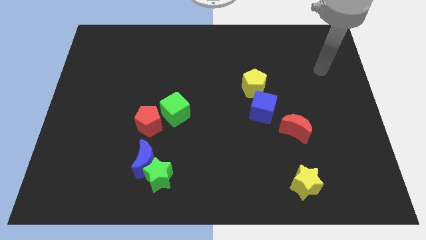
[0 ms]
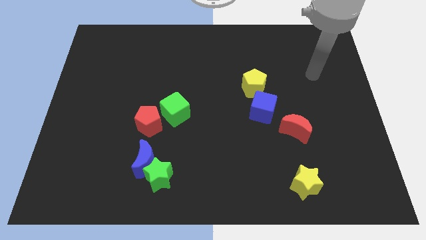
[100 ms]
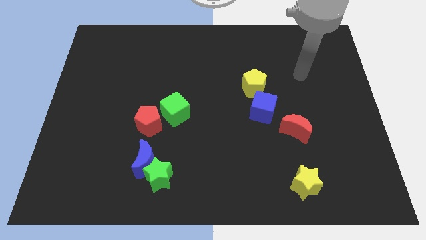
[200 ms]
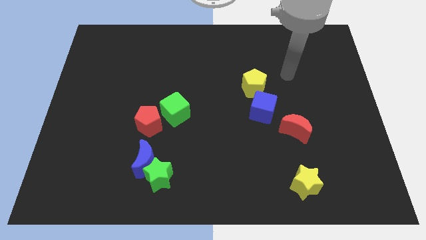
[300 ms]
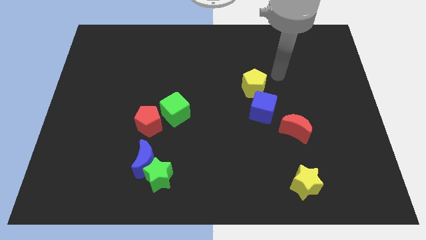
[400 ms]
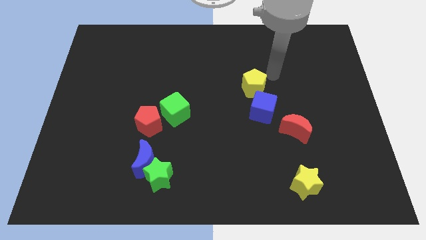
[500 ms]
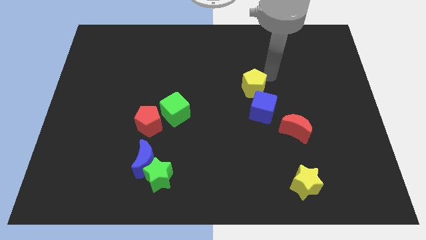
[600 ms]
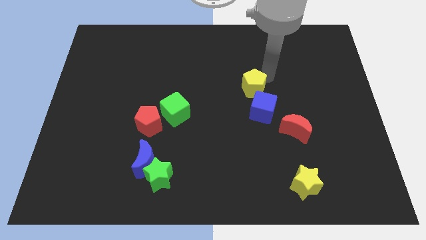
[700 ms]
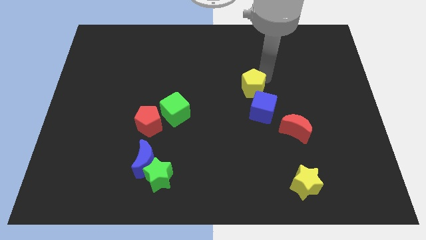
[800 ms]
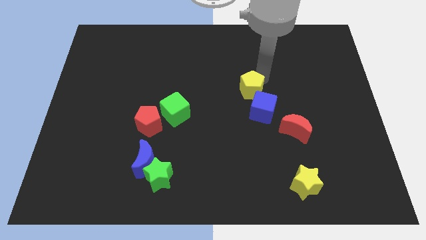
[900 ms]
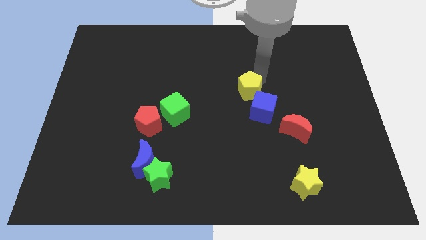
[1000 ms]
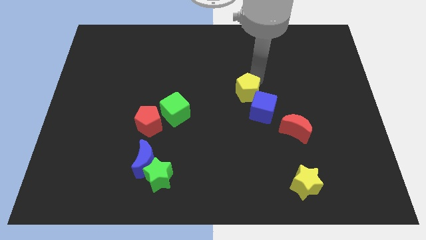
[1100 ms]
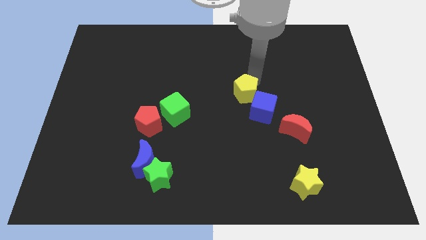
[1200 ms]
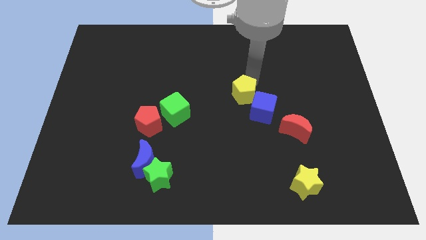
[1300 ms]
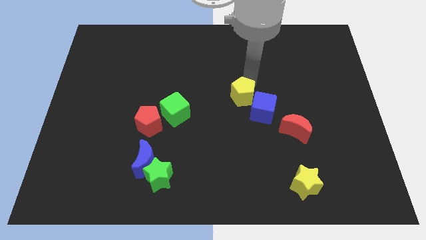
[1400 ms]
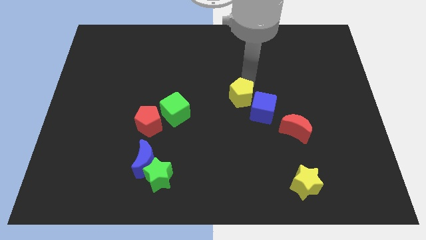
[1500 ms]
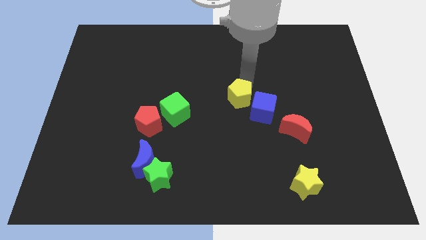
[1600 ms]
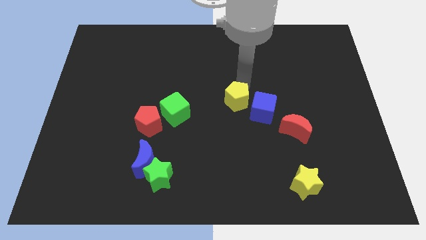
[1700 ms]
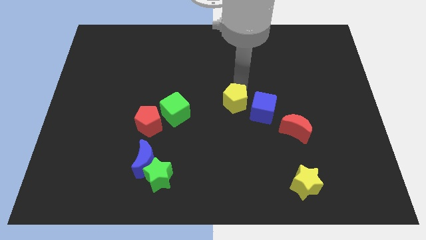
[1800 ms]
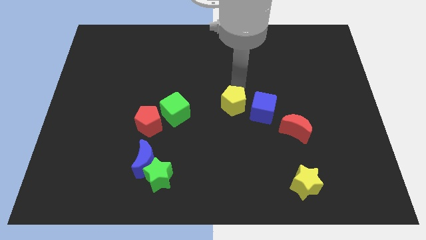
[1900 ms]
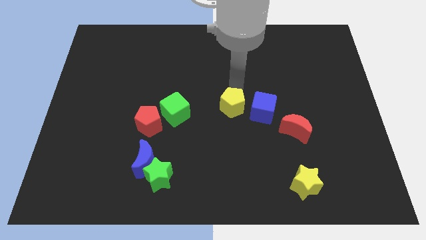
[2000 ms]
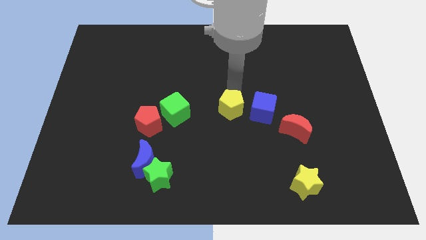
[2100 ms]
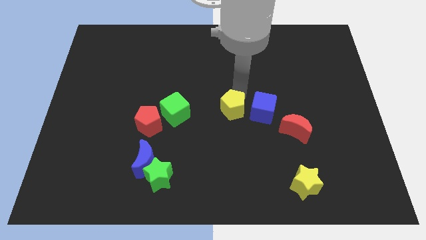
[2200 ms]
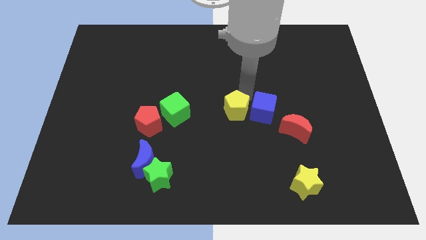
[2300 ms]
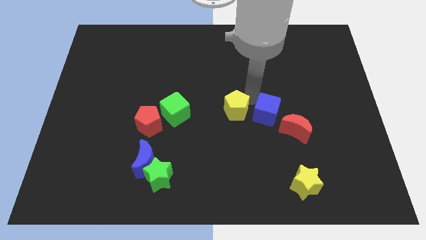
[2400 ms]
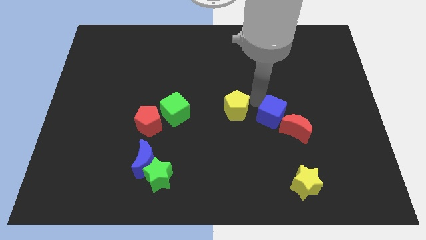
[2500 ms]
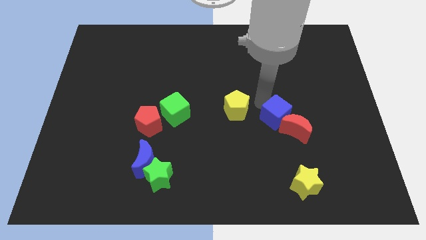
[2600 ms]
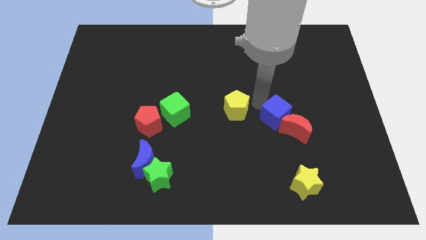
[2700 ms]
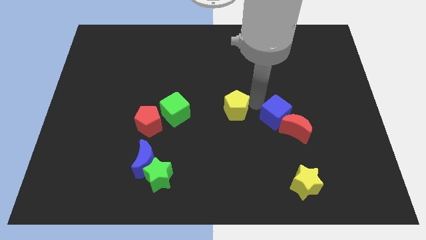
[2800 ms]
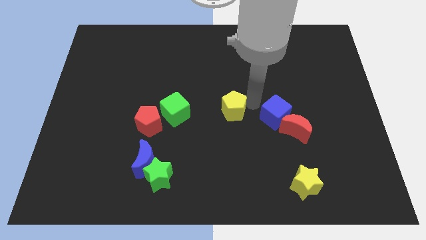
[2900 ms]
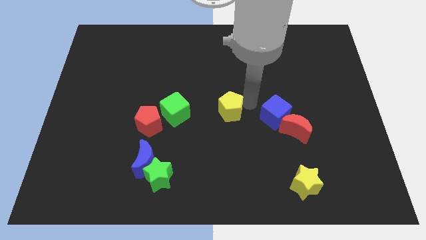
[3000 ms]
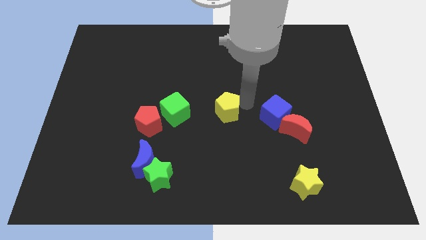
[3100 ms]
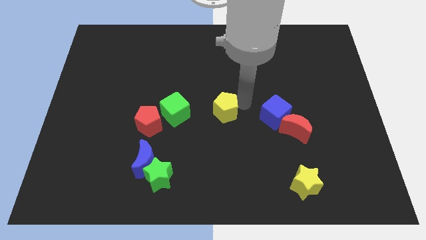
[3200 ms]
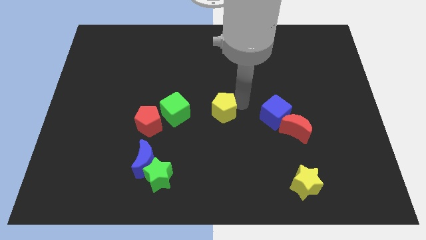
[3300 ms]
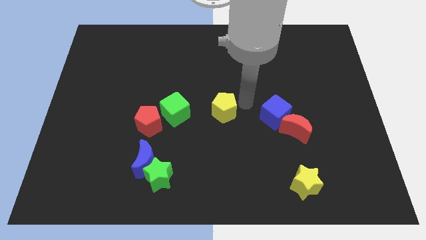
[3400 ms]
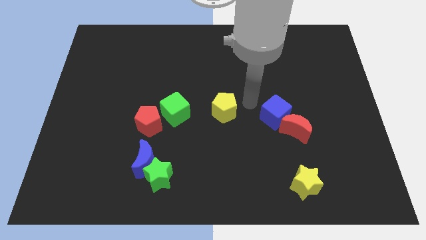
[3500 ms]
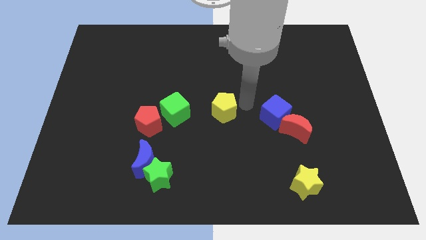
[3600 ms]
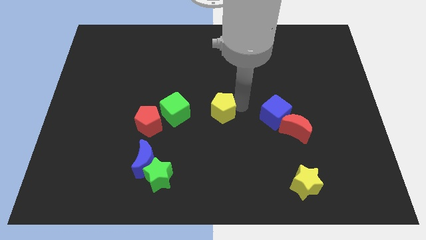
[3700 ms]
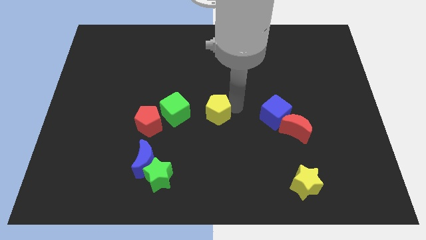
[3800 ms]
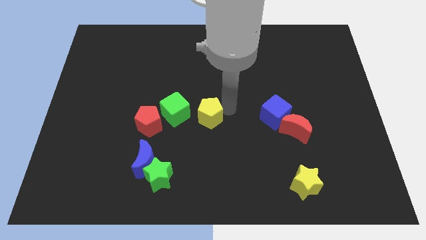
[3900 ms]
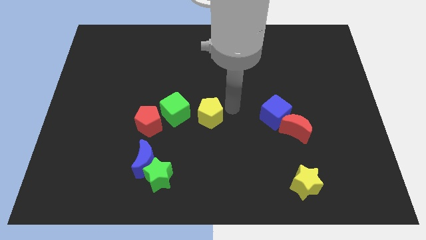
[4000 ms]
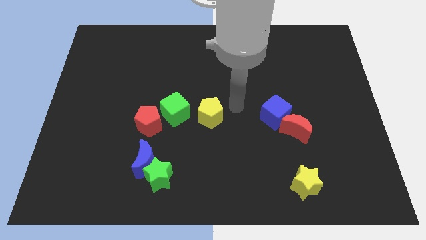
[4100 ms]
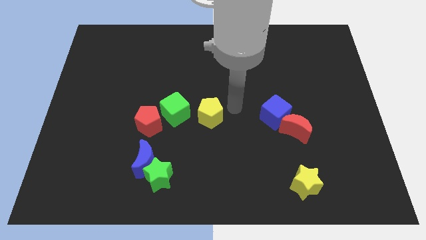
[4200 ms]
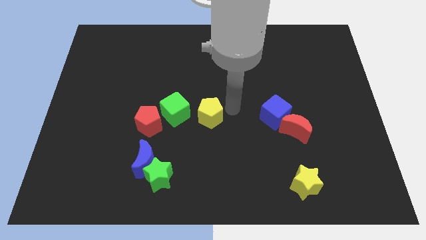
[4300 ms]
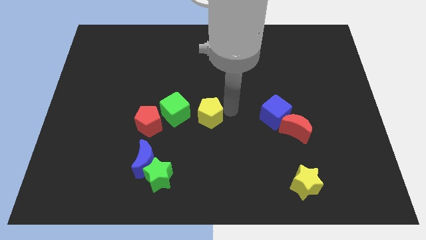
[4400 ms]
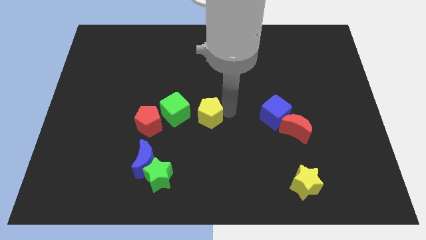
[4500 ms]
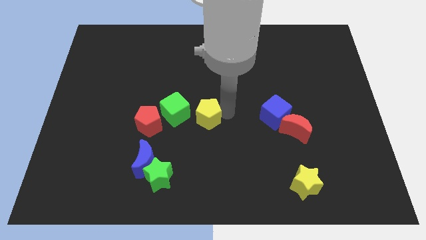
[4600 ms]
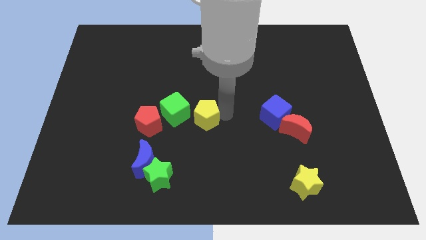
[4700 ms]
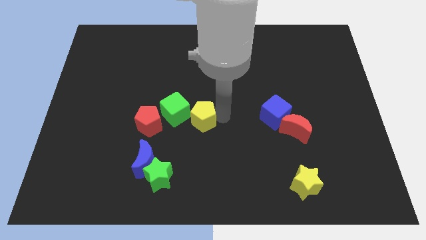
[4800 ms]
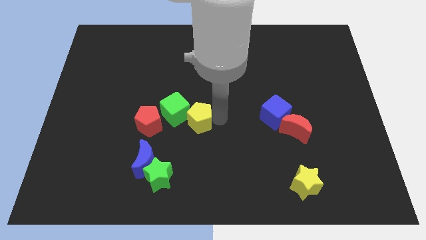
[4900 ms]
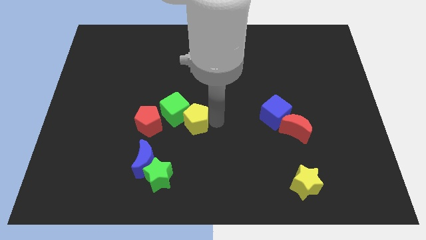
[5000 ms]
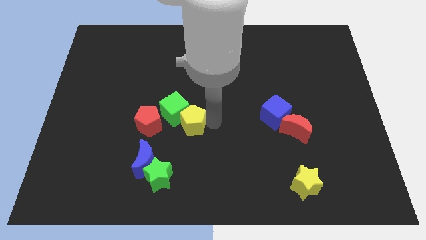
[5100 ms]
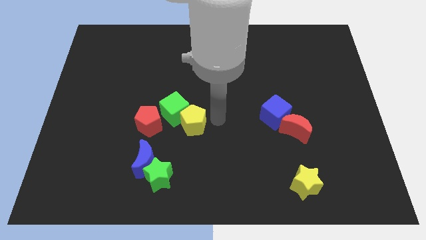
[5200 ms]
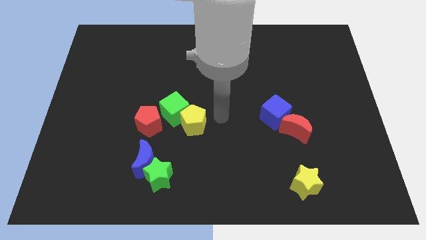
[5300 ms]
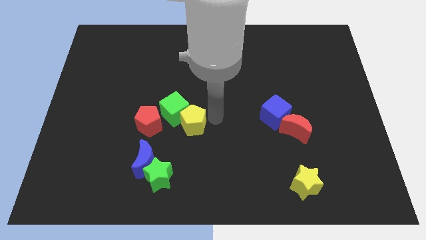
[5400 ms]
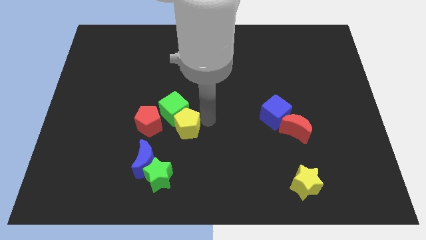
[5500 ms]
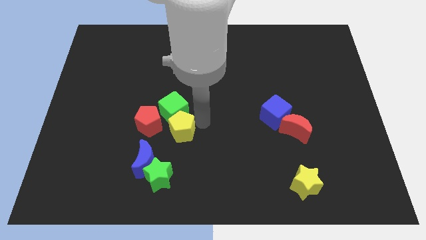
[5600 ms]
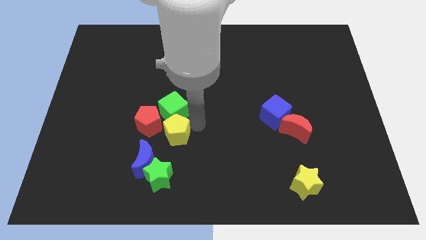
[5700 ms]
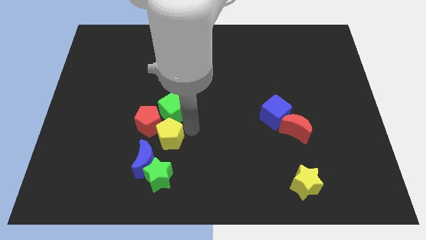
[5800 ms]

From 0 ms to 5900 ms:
move the yellow pentagon next to the red pentagon

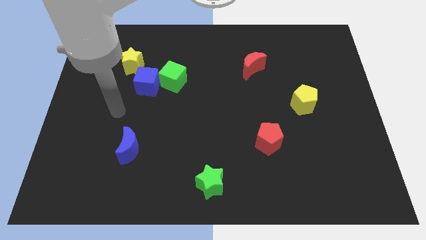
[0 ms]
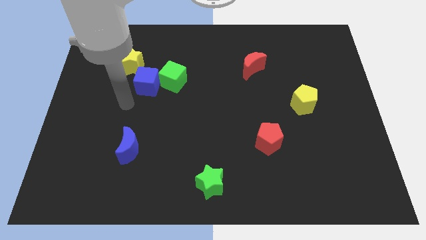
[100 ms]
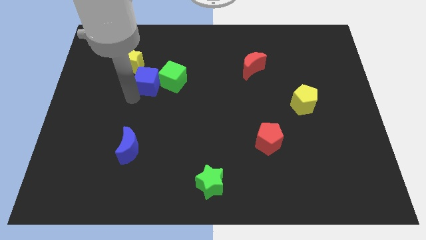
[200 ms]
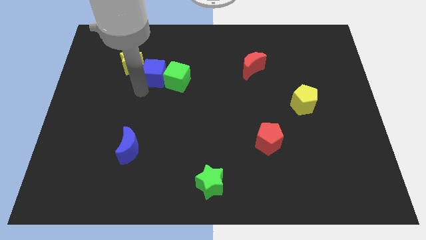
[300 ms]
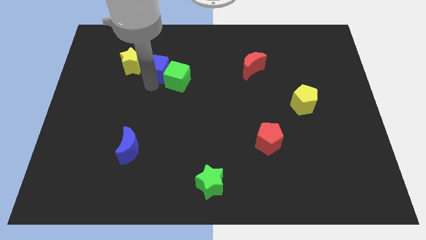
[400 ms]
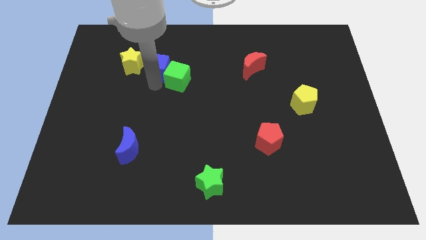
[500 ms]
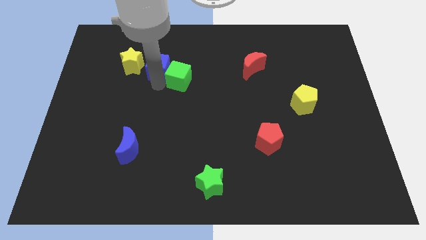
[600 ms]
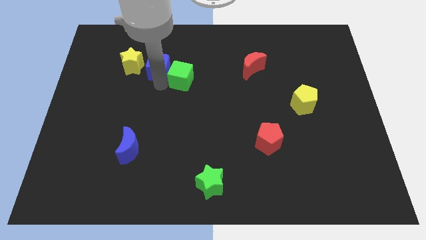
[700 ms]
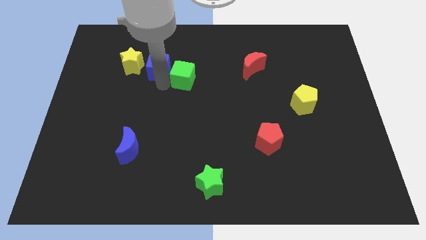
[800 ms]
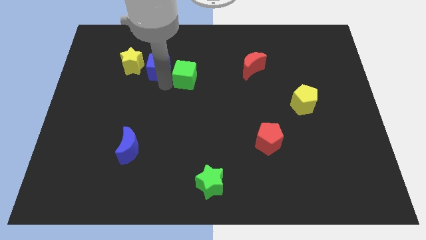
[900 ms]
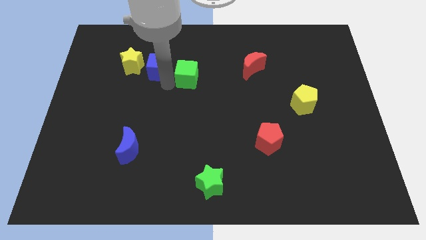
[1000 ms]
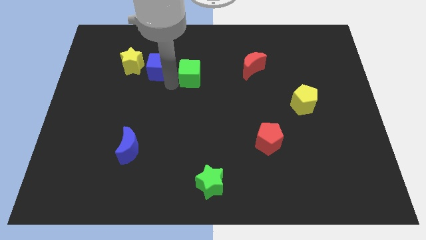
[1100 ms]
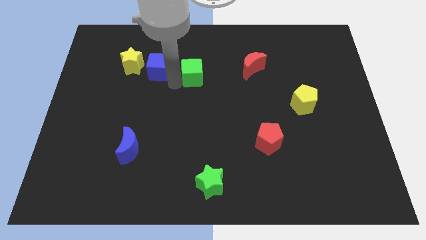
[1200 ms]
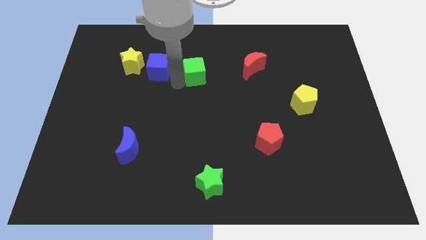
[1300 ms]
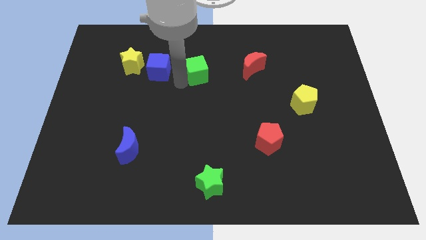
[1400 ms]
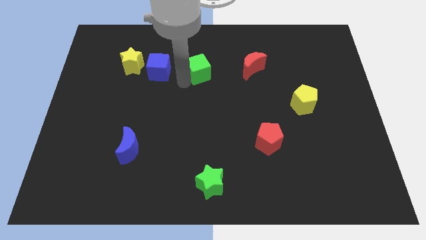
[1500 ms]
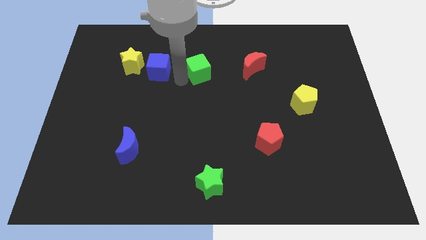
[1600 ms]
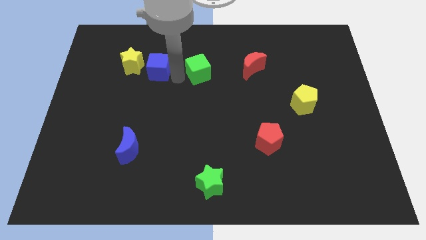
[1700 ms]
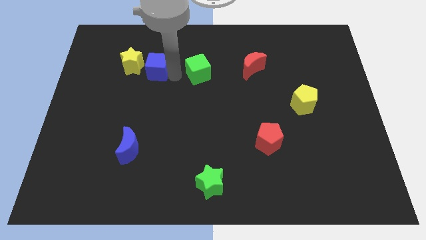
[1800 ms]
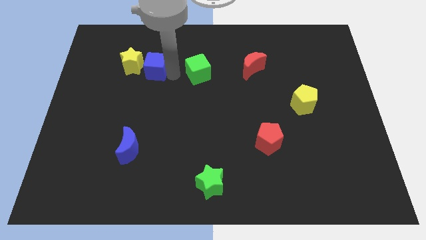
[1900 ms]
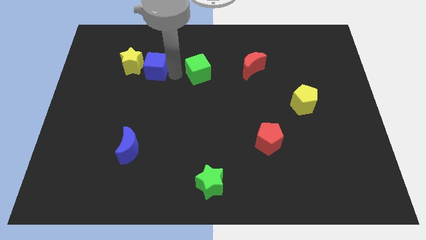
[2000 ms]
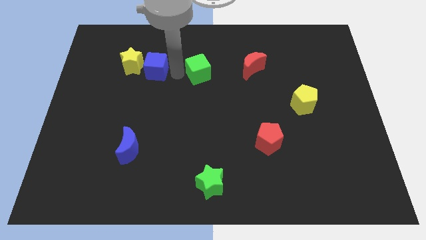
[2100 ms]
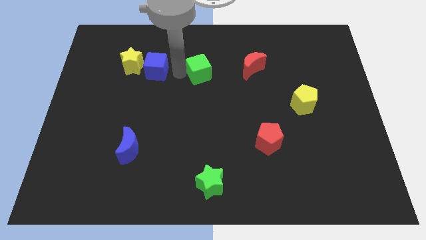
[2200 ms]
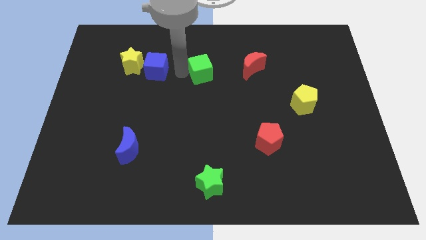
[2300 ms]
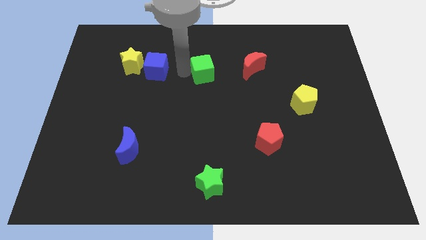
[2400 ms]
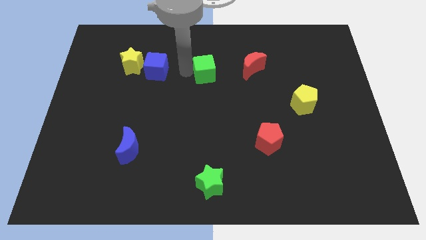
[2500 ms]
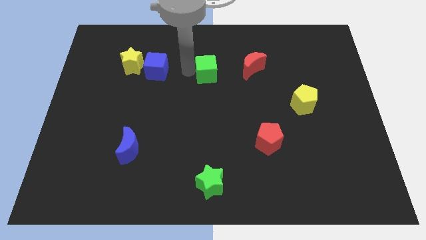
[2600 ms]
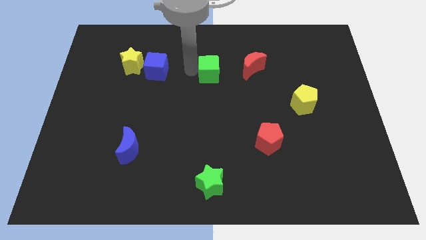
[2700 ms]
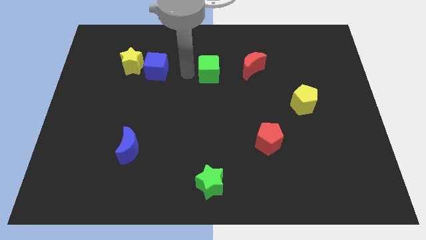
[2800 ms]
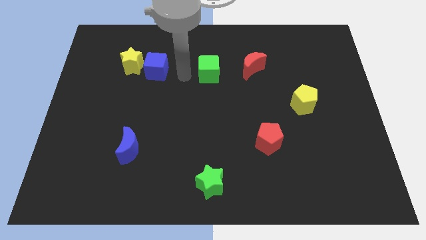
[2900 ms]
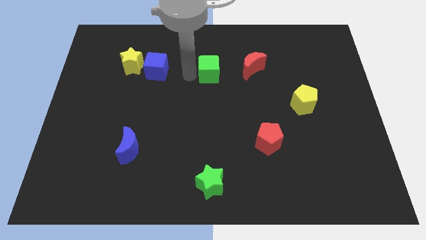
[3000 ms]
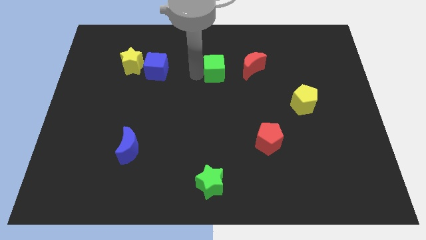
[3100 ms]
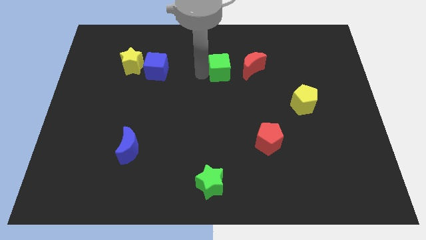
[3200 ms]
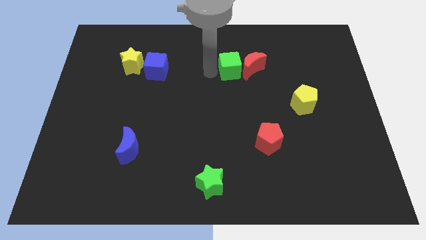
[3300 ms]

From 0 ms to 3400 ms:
slide the green cube close to the red moon
